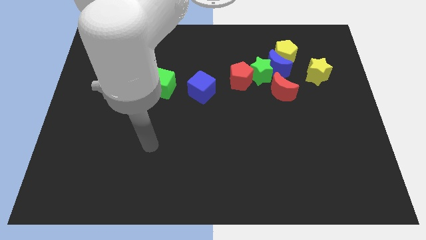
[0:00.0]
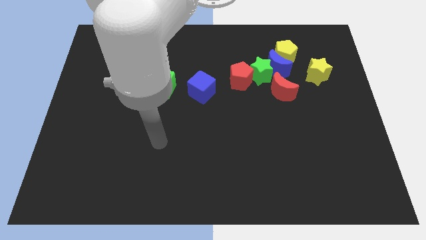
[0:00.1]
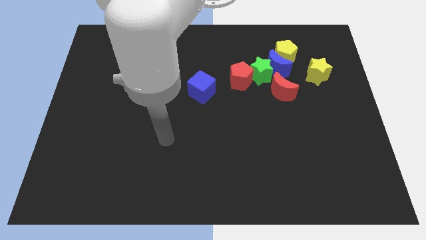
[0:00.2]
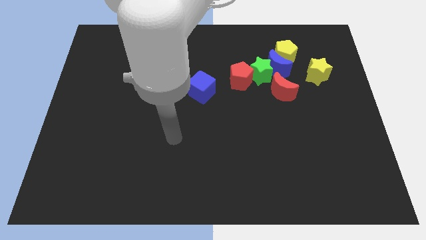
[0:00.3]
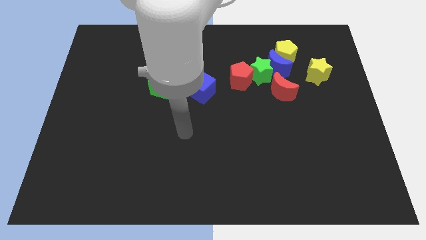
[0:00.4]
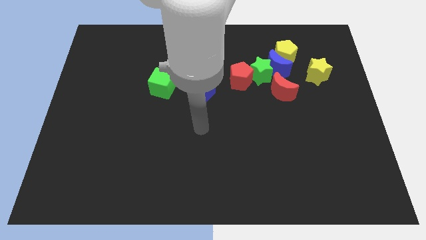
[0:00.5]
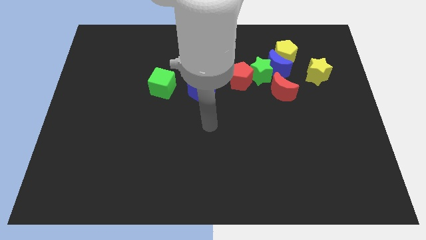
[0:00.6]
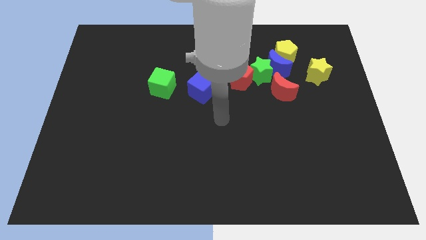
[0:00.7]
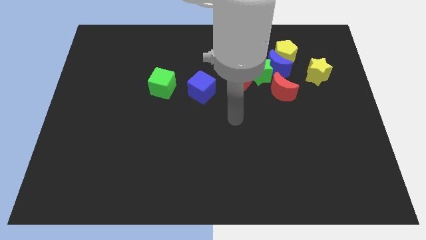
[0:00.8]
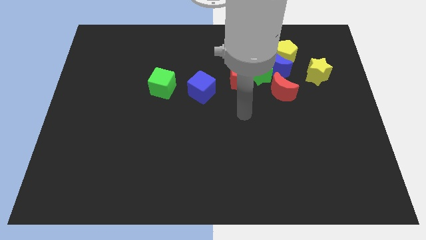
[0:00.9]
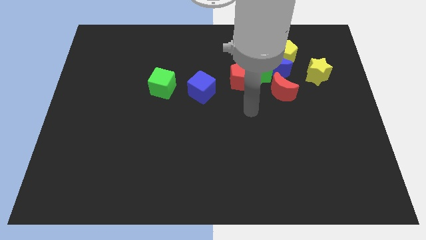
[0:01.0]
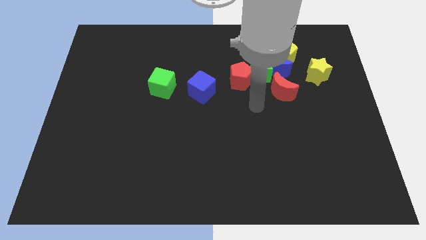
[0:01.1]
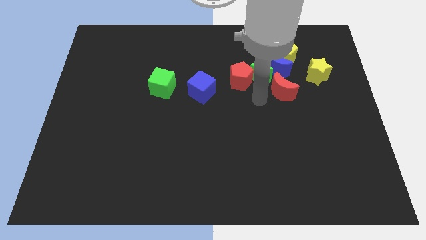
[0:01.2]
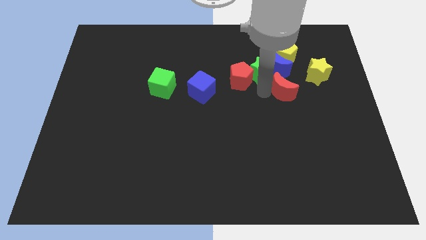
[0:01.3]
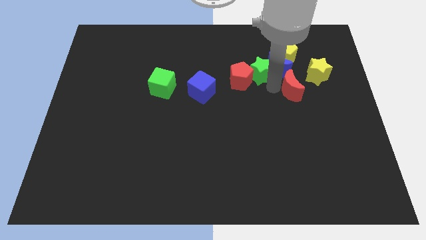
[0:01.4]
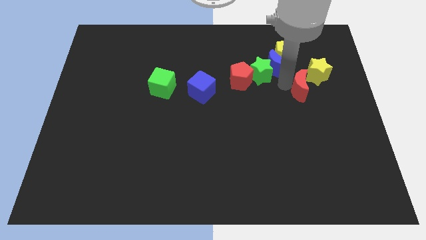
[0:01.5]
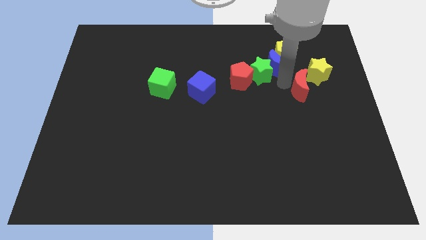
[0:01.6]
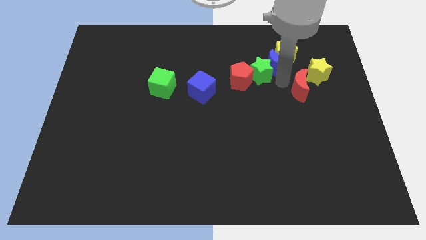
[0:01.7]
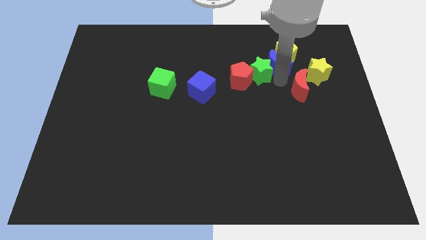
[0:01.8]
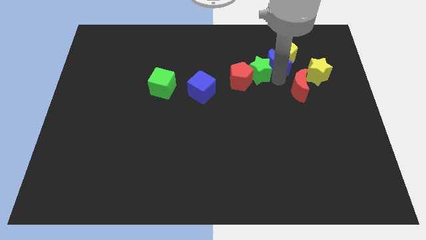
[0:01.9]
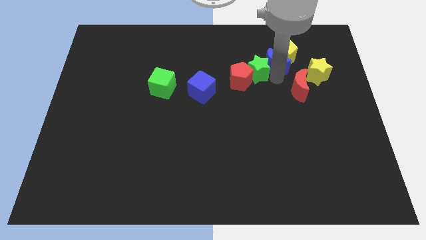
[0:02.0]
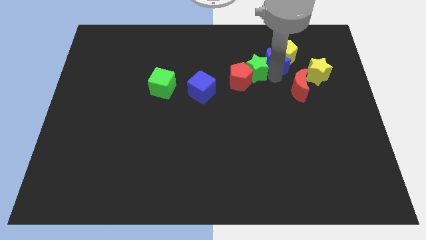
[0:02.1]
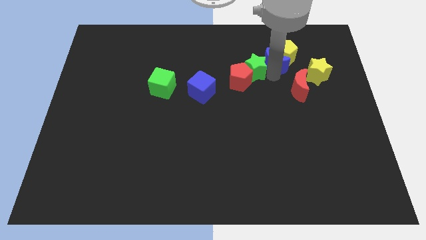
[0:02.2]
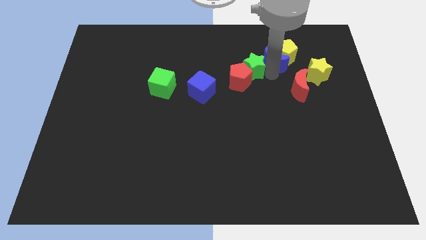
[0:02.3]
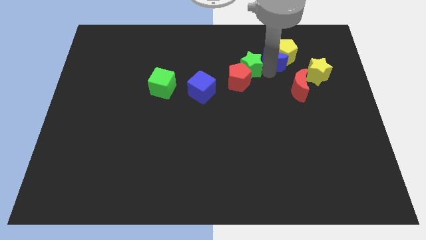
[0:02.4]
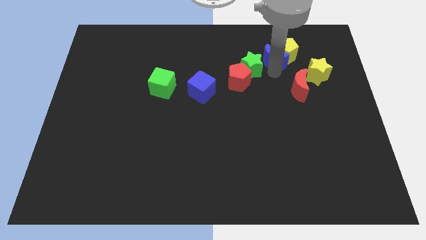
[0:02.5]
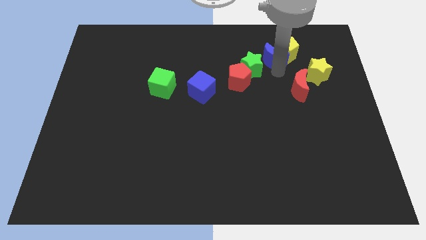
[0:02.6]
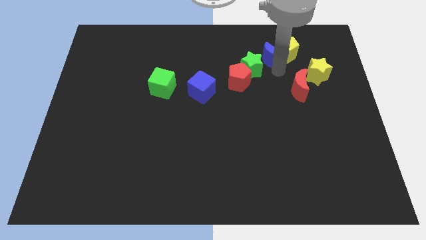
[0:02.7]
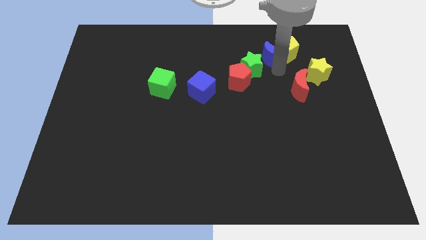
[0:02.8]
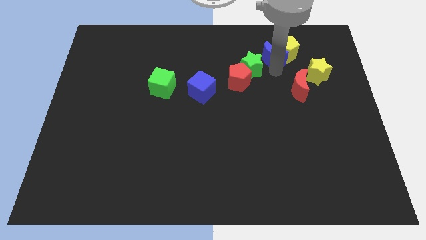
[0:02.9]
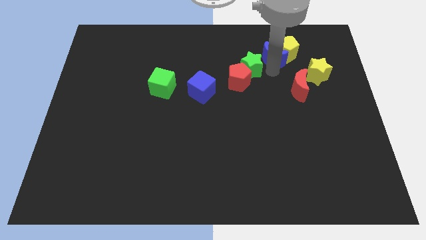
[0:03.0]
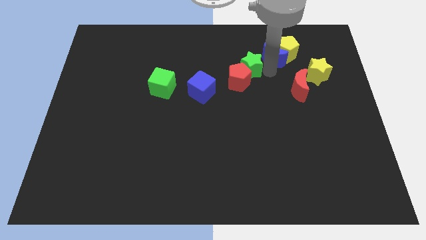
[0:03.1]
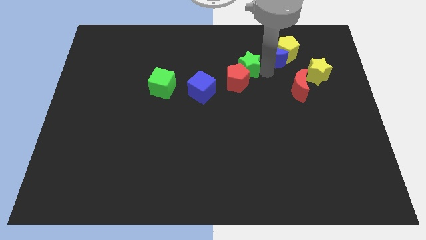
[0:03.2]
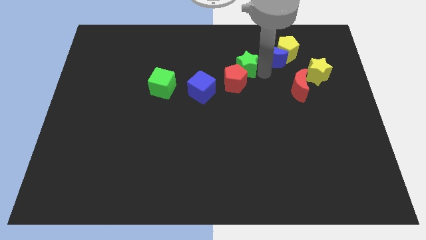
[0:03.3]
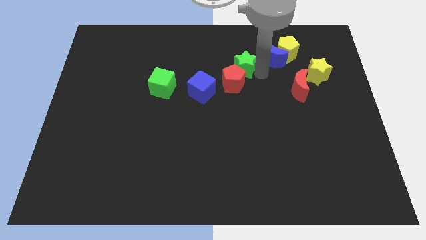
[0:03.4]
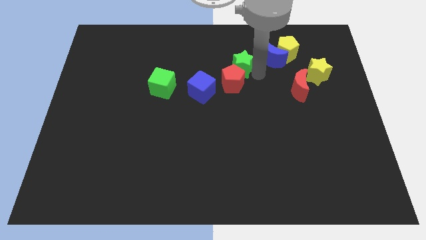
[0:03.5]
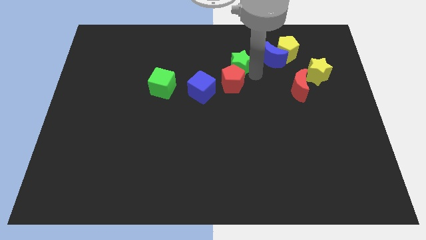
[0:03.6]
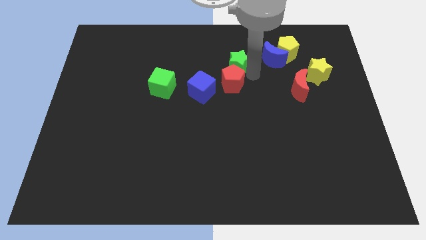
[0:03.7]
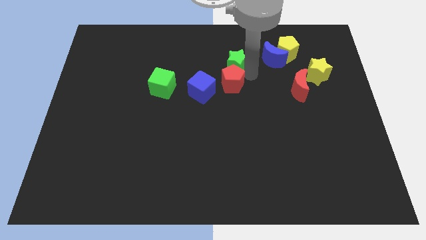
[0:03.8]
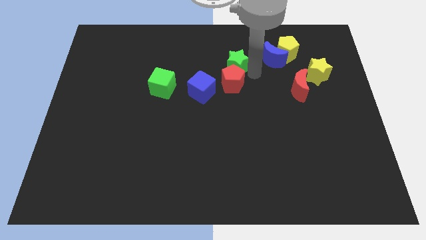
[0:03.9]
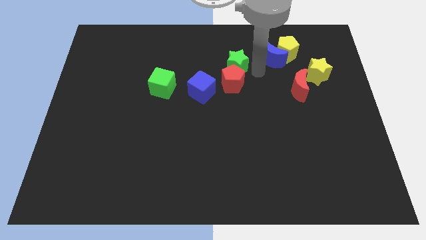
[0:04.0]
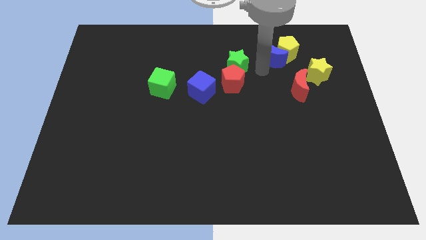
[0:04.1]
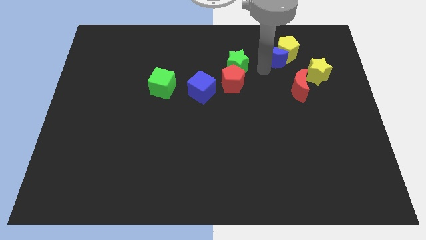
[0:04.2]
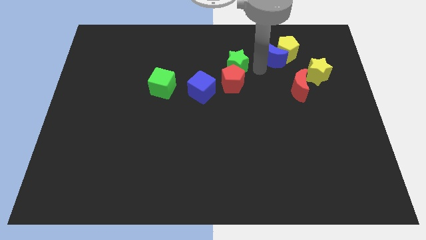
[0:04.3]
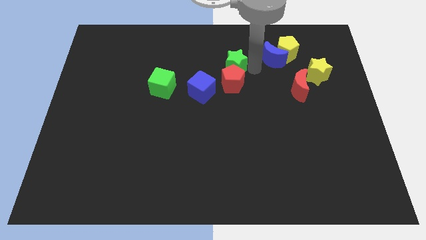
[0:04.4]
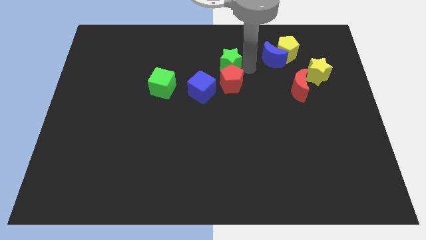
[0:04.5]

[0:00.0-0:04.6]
separate the green star from the group of blocks

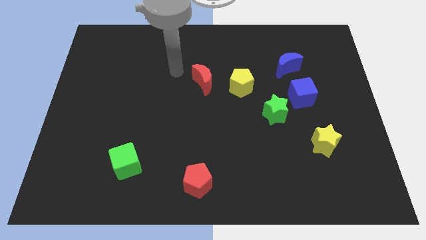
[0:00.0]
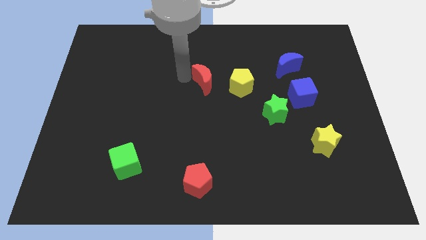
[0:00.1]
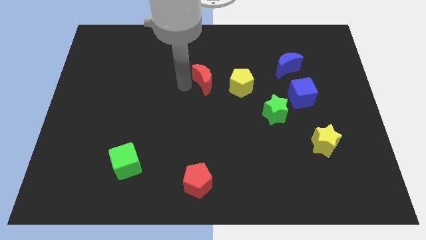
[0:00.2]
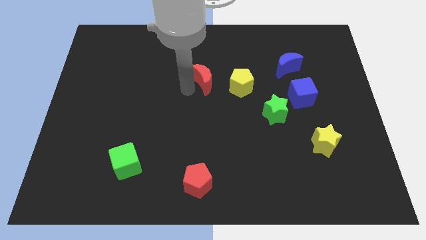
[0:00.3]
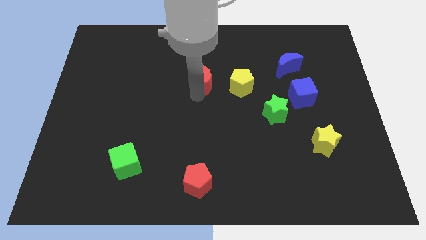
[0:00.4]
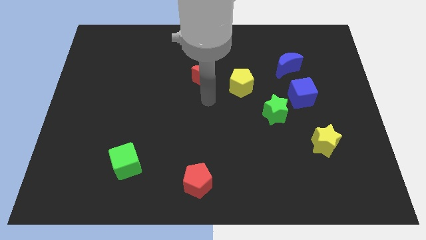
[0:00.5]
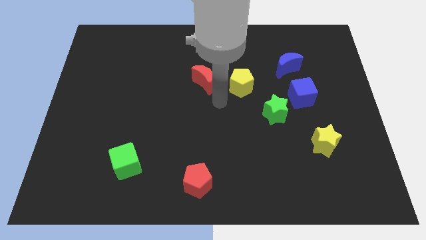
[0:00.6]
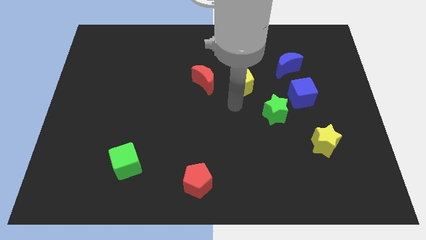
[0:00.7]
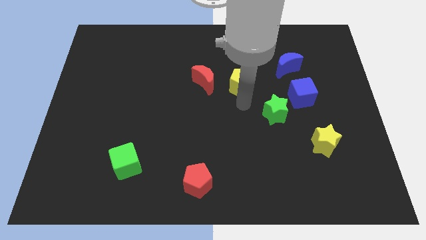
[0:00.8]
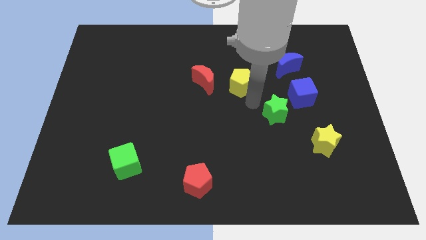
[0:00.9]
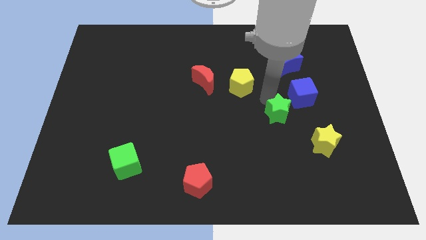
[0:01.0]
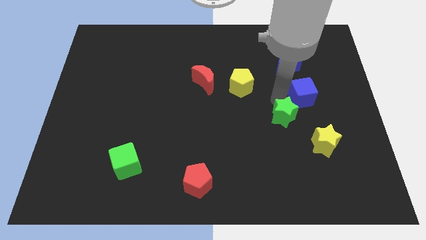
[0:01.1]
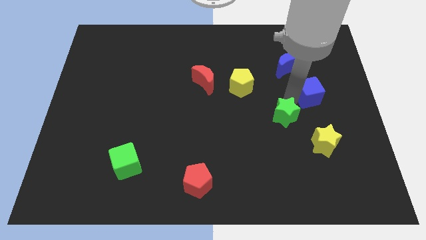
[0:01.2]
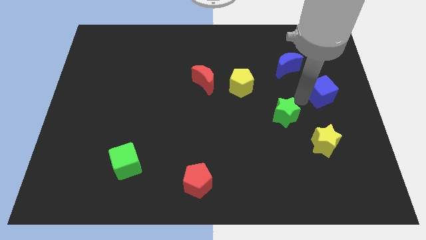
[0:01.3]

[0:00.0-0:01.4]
move the green star away from the blue cube

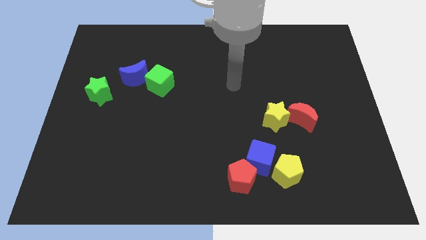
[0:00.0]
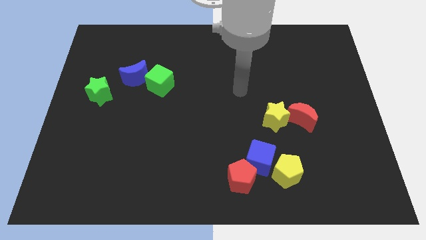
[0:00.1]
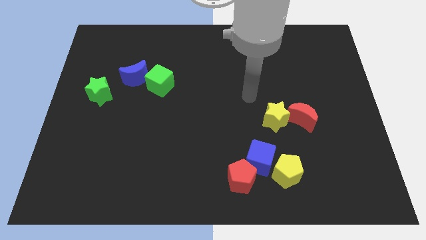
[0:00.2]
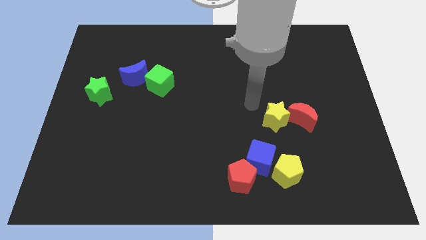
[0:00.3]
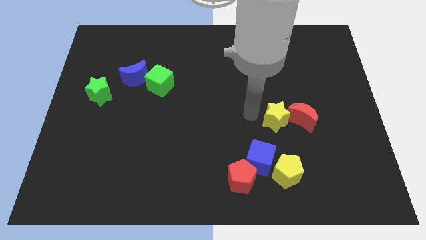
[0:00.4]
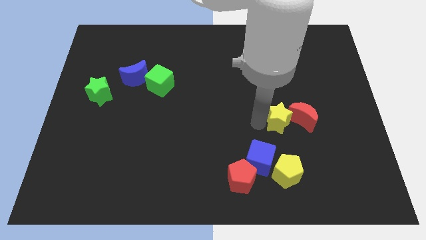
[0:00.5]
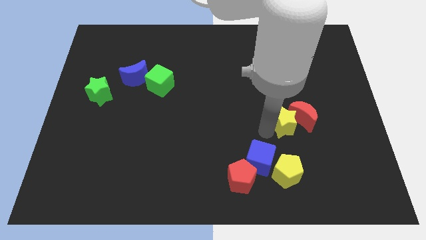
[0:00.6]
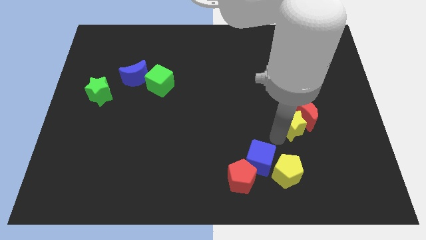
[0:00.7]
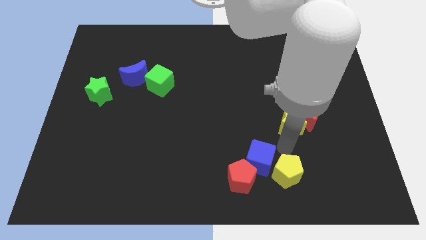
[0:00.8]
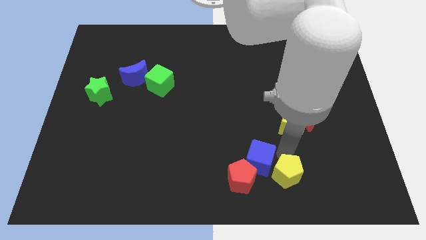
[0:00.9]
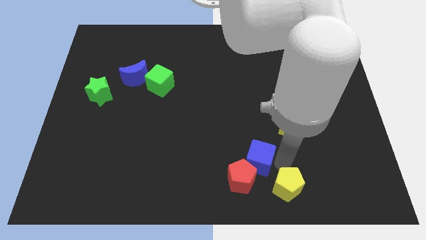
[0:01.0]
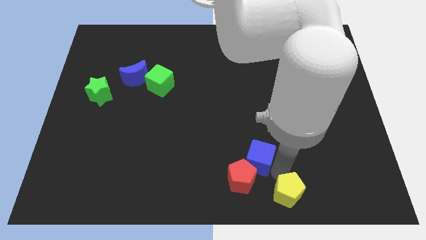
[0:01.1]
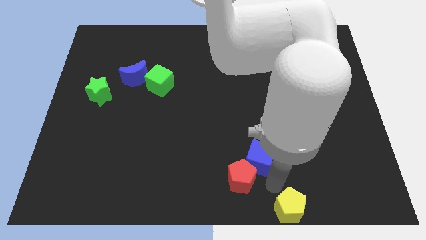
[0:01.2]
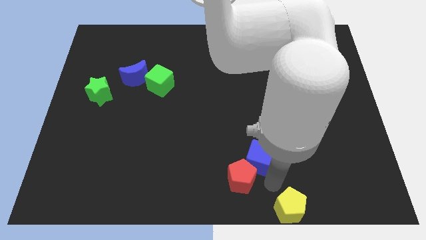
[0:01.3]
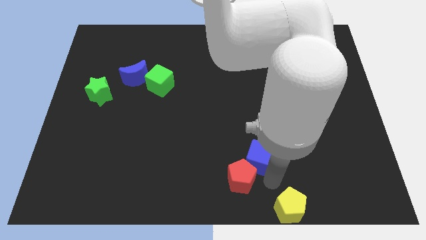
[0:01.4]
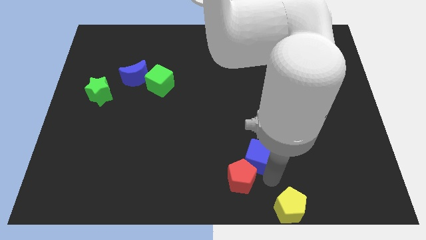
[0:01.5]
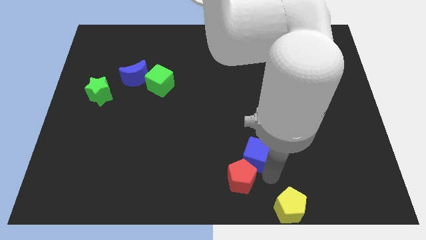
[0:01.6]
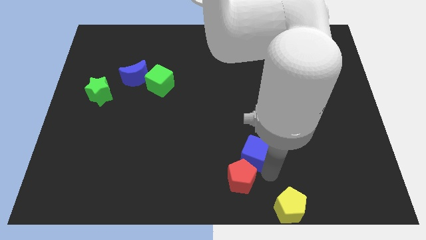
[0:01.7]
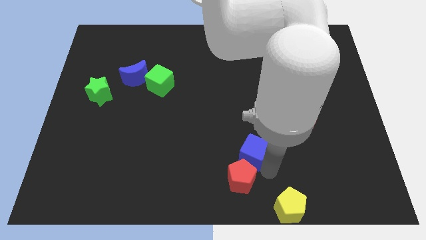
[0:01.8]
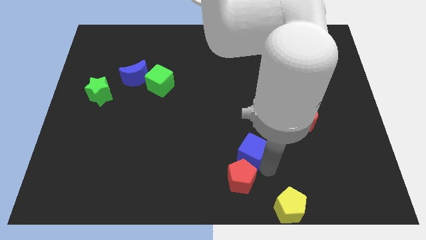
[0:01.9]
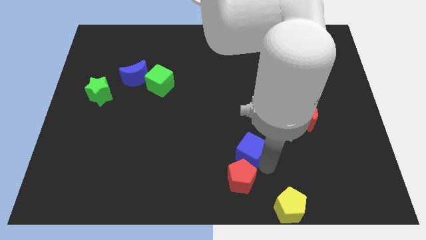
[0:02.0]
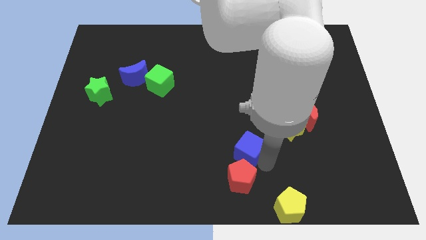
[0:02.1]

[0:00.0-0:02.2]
pull the blue cube apart from the red pentagon and yellow pentagon

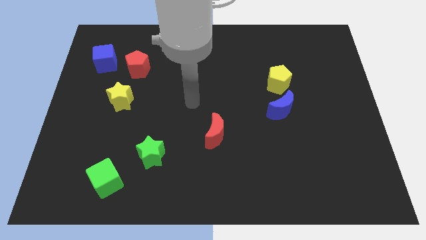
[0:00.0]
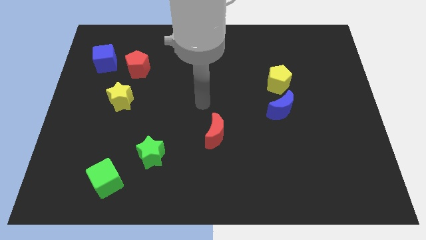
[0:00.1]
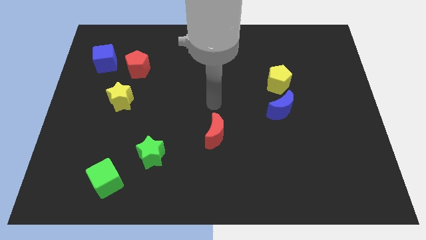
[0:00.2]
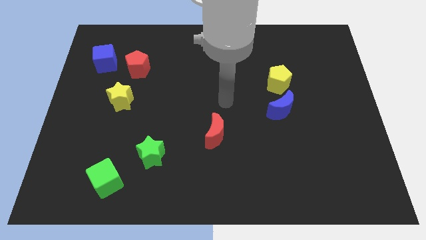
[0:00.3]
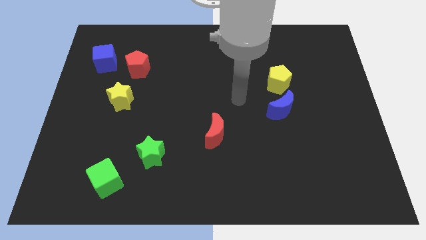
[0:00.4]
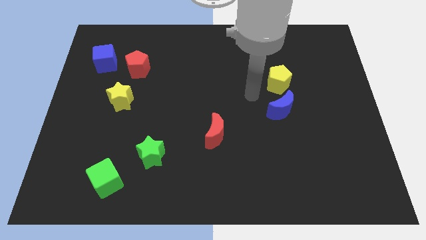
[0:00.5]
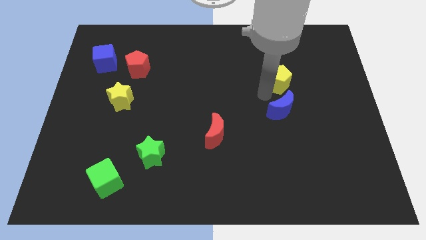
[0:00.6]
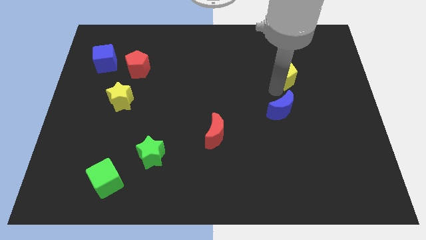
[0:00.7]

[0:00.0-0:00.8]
separate the blue moon from the yellow pentagon

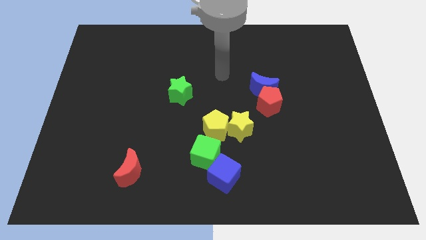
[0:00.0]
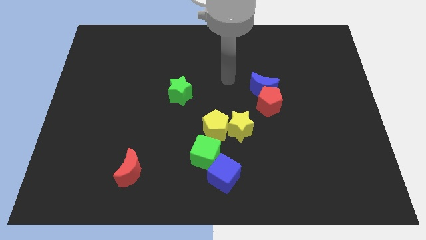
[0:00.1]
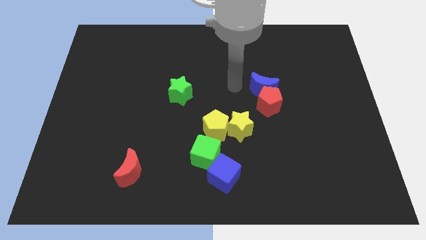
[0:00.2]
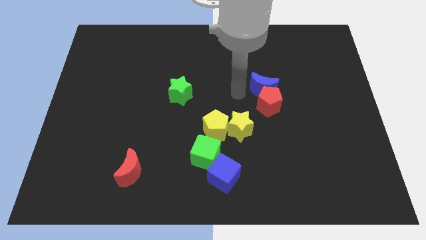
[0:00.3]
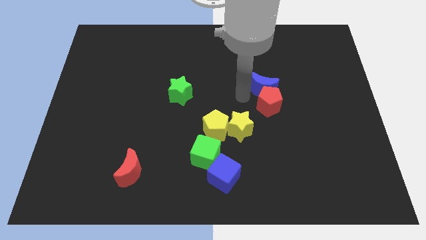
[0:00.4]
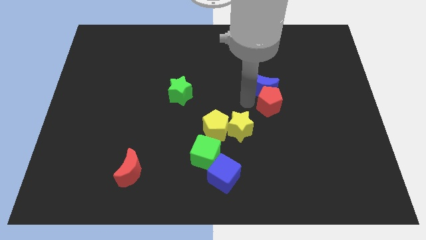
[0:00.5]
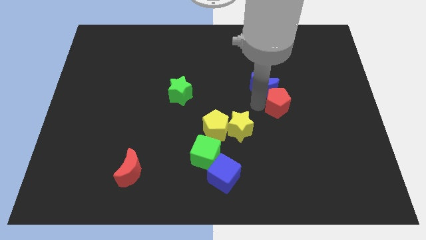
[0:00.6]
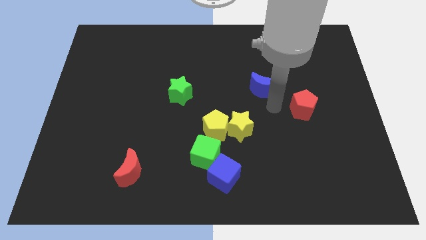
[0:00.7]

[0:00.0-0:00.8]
separate the blue moon from the red pentagon
